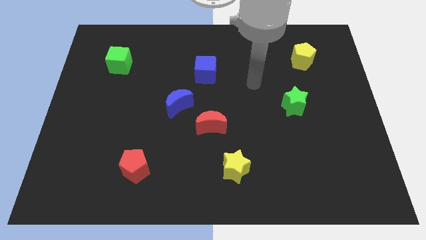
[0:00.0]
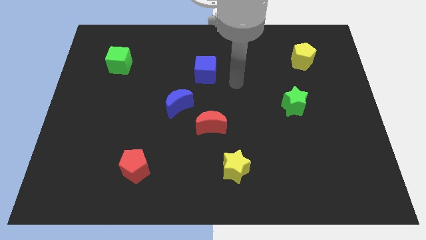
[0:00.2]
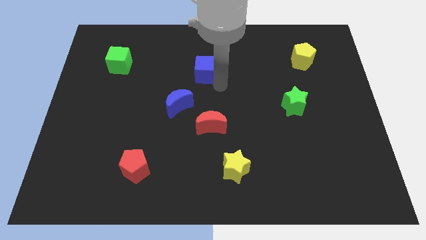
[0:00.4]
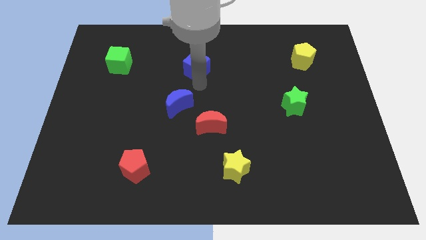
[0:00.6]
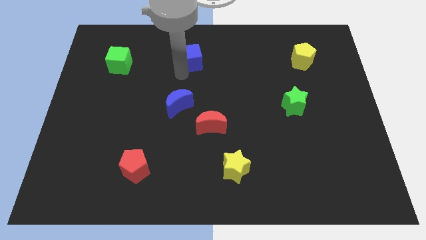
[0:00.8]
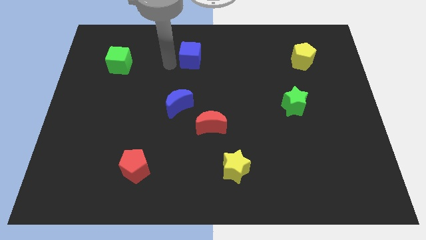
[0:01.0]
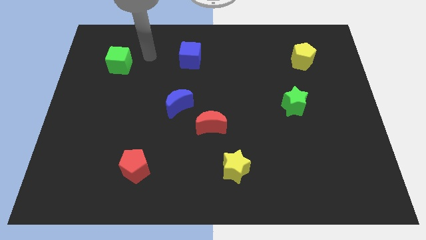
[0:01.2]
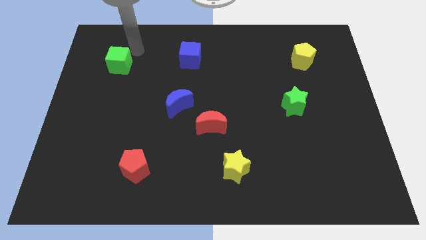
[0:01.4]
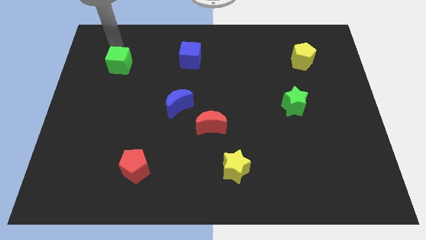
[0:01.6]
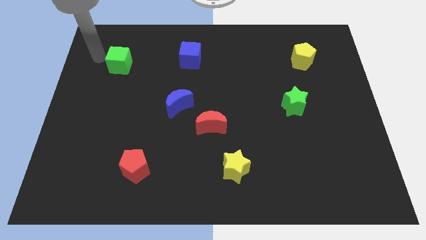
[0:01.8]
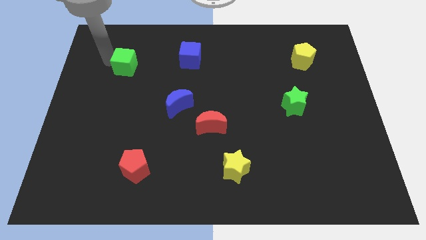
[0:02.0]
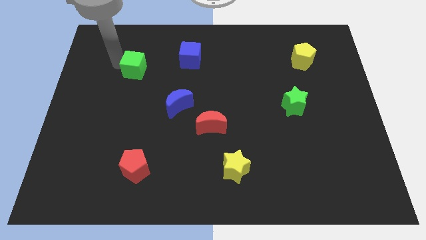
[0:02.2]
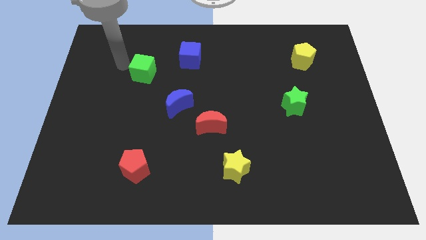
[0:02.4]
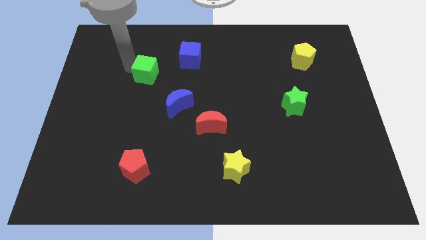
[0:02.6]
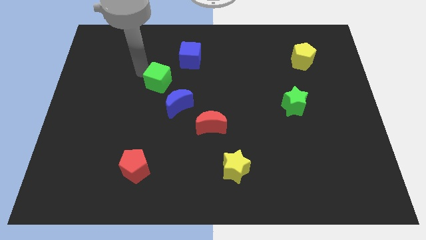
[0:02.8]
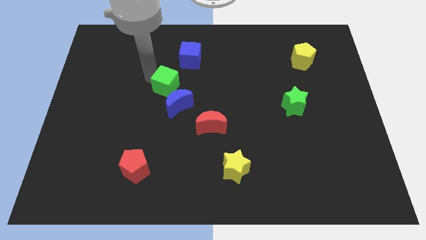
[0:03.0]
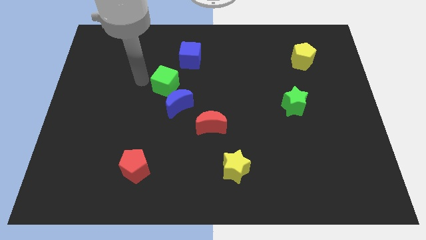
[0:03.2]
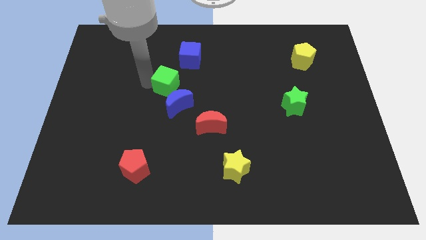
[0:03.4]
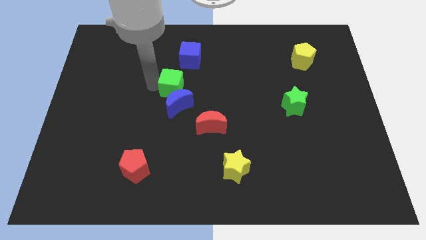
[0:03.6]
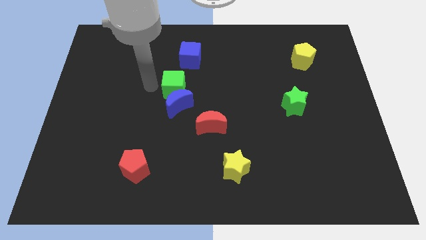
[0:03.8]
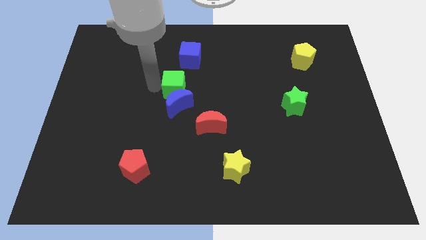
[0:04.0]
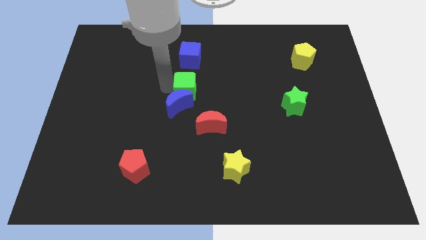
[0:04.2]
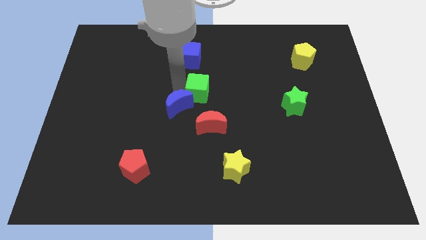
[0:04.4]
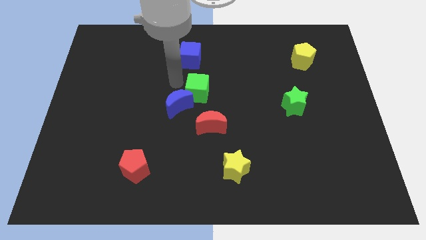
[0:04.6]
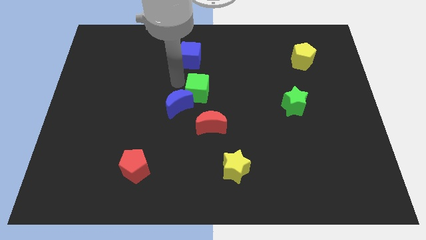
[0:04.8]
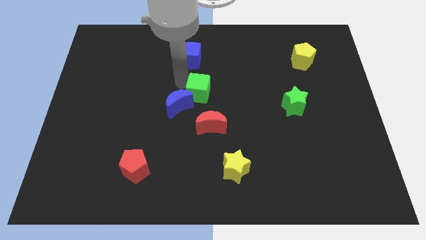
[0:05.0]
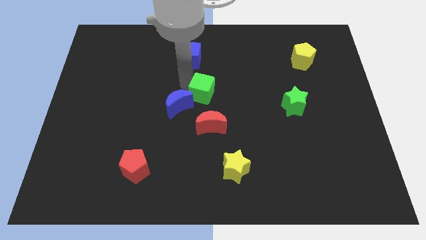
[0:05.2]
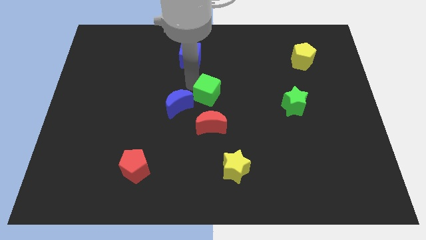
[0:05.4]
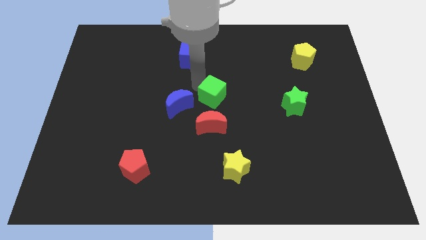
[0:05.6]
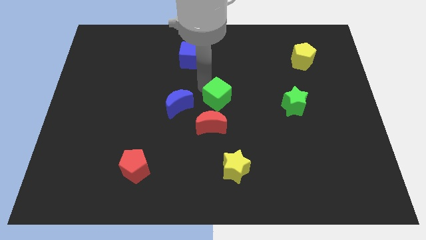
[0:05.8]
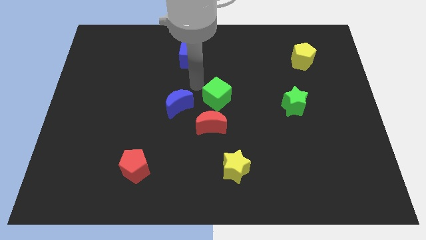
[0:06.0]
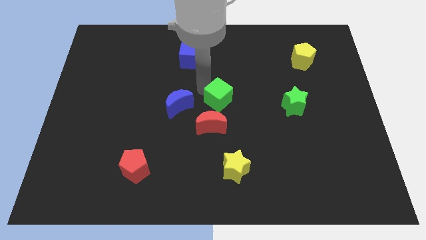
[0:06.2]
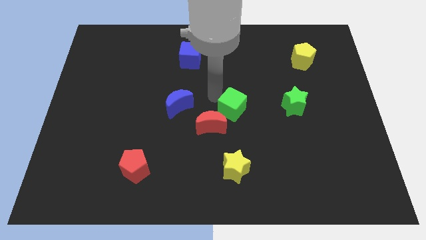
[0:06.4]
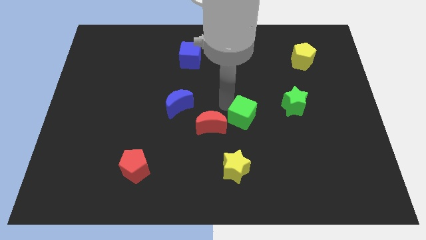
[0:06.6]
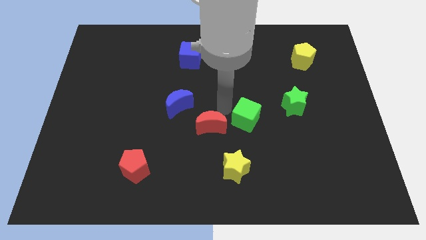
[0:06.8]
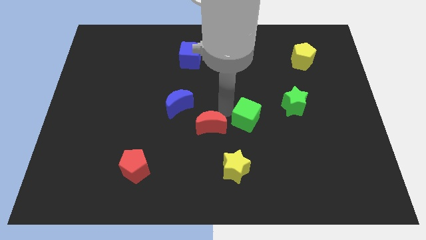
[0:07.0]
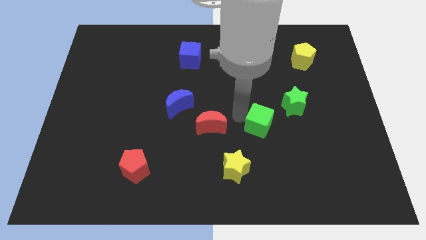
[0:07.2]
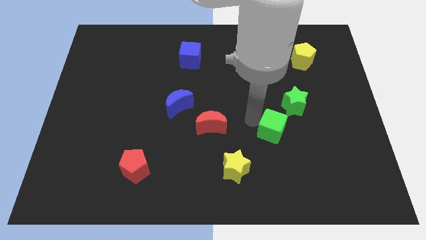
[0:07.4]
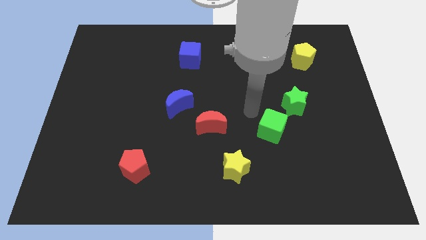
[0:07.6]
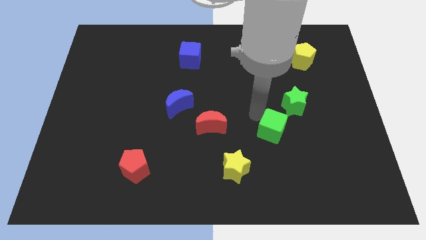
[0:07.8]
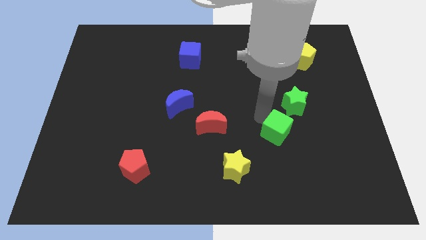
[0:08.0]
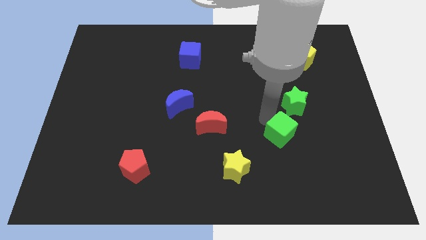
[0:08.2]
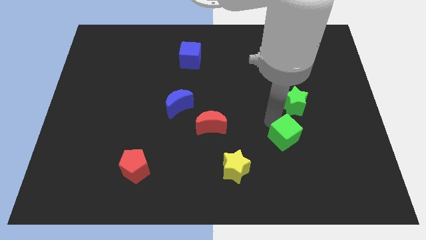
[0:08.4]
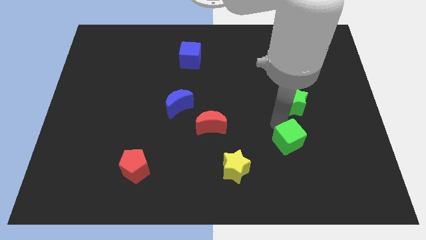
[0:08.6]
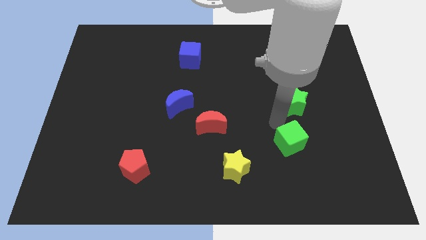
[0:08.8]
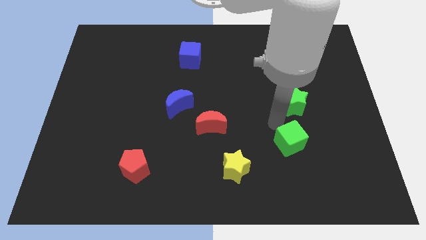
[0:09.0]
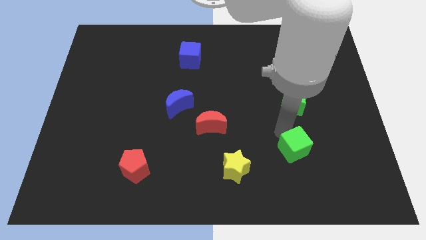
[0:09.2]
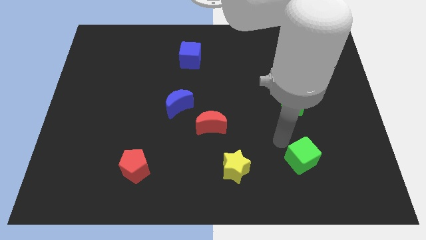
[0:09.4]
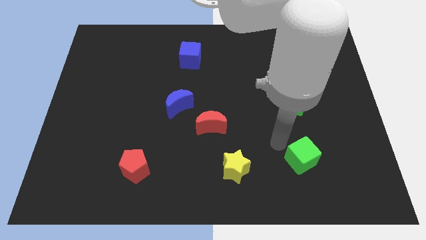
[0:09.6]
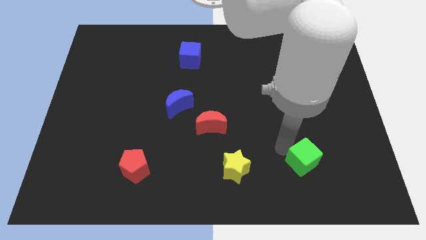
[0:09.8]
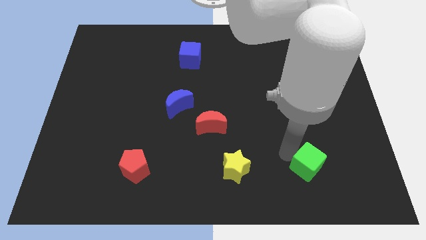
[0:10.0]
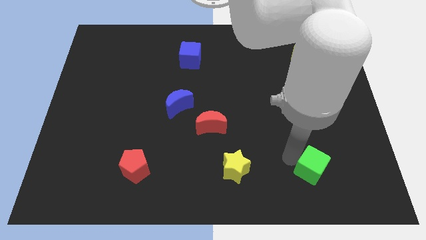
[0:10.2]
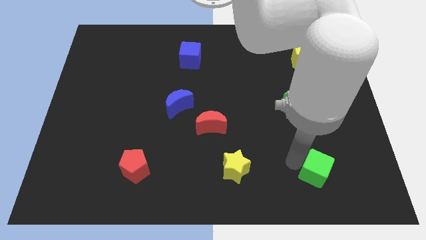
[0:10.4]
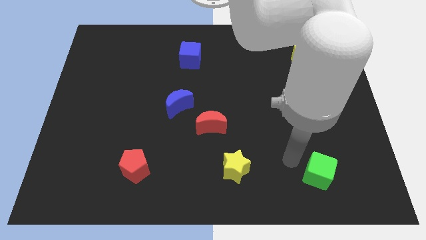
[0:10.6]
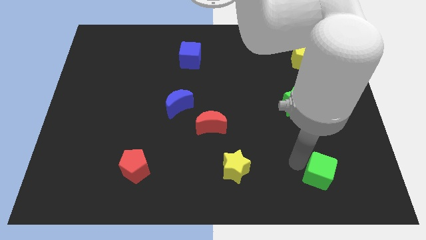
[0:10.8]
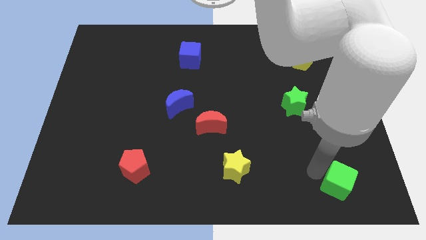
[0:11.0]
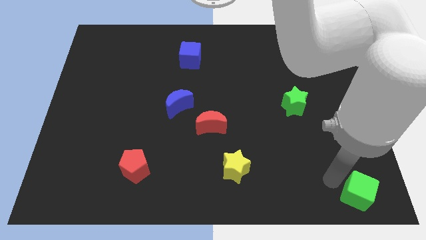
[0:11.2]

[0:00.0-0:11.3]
put the green cube to the lower right corner

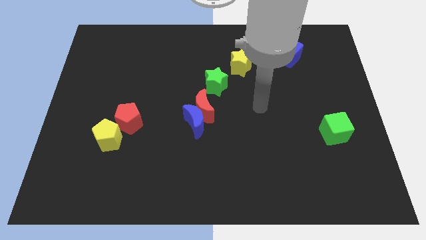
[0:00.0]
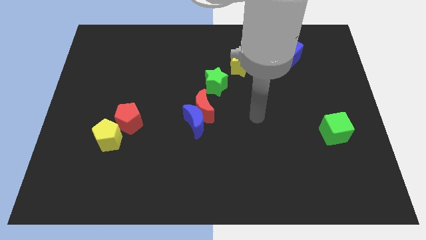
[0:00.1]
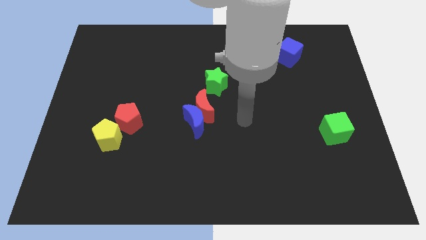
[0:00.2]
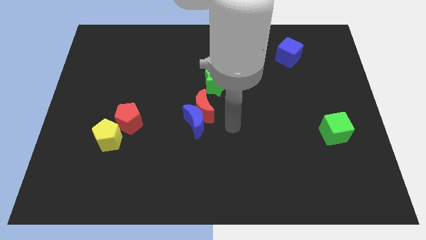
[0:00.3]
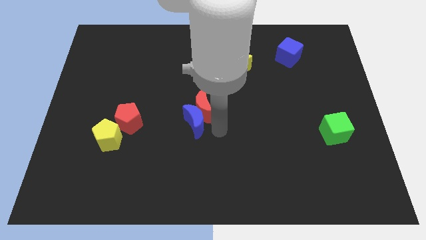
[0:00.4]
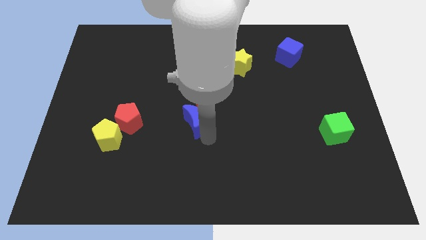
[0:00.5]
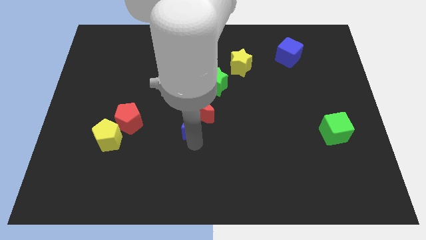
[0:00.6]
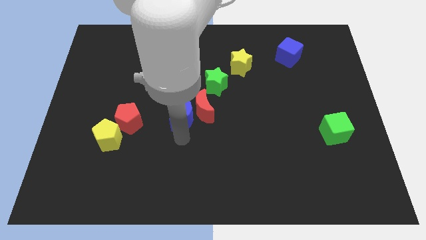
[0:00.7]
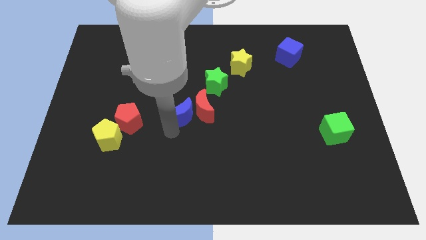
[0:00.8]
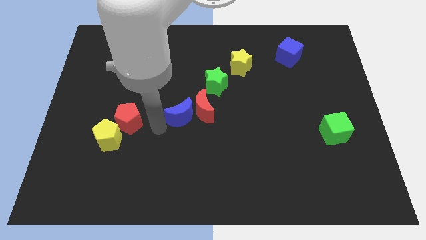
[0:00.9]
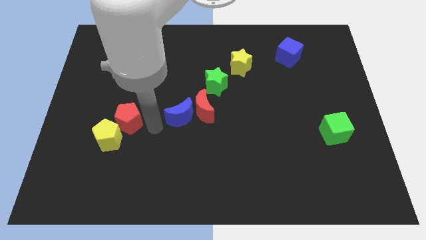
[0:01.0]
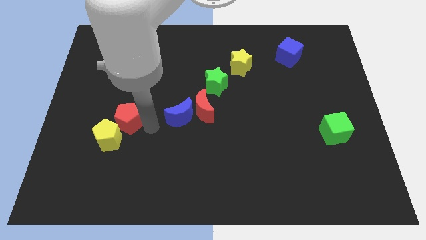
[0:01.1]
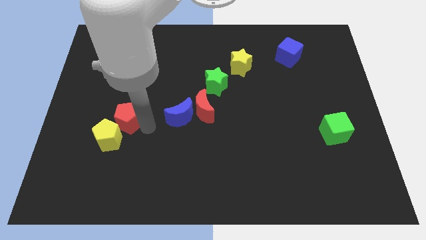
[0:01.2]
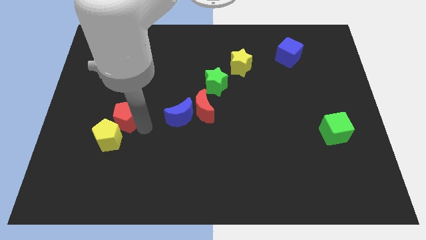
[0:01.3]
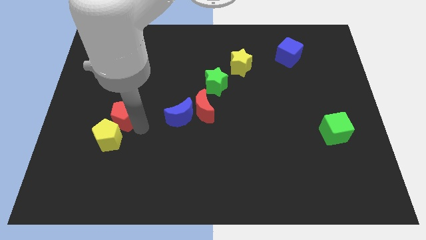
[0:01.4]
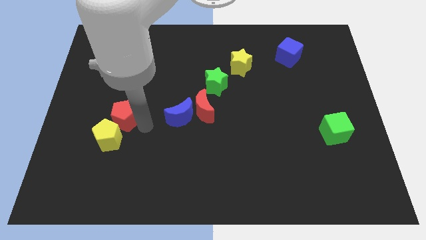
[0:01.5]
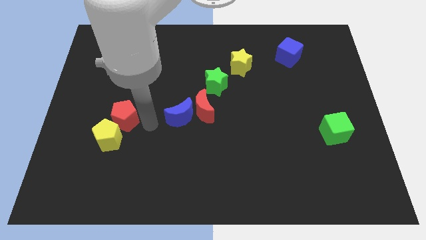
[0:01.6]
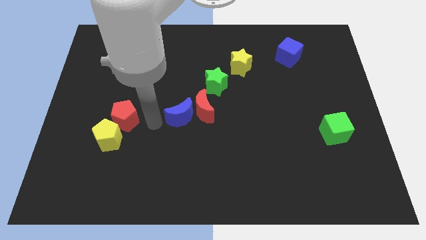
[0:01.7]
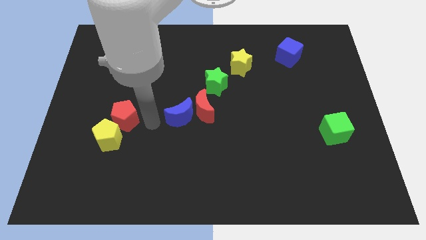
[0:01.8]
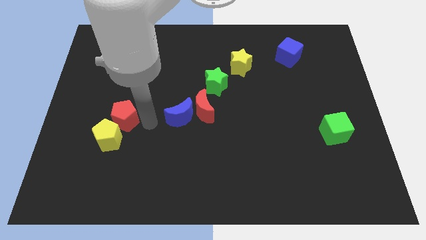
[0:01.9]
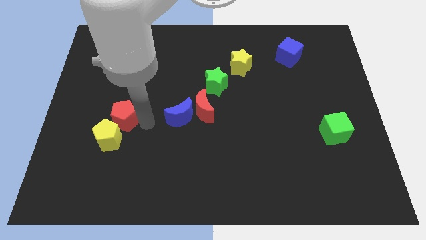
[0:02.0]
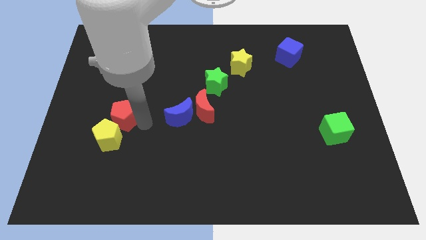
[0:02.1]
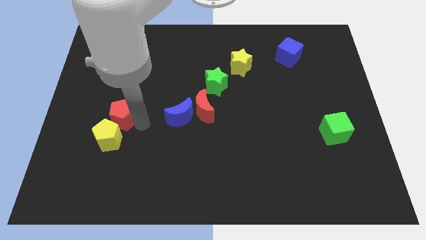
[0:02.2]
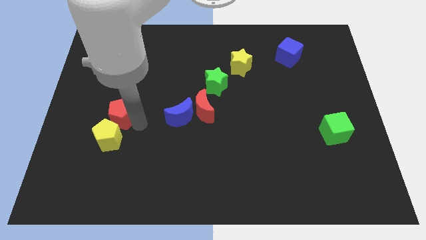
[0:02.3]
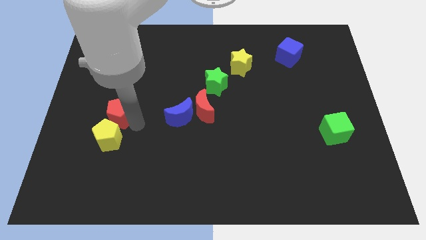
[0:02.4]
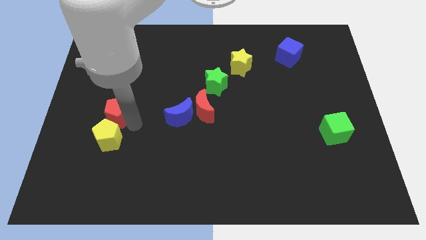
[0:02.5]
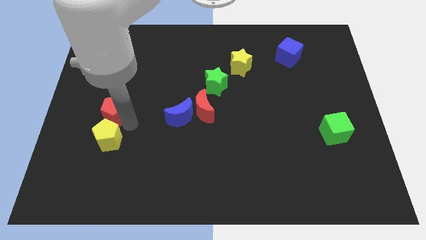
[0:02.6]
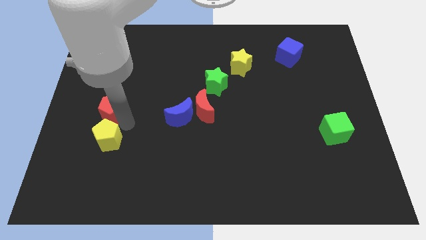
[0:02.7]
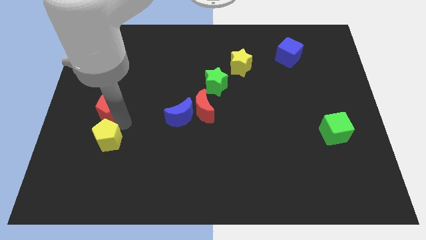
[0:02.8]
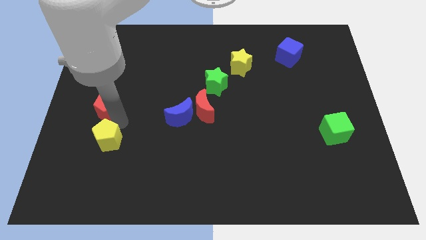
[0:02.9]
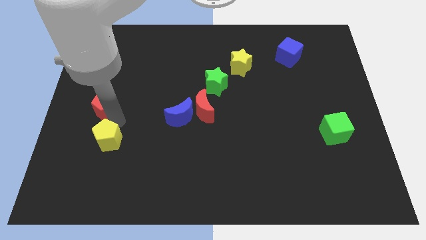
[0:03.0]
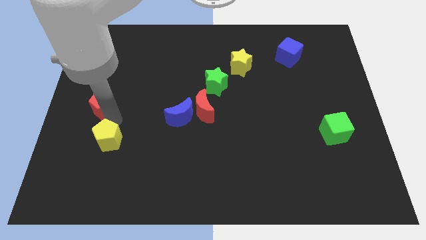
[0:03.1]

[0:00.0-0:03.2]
put the red pentagon to the center left
